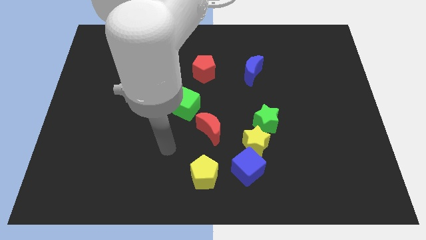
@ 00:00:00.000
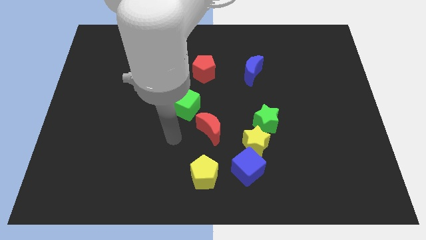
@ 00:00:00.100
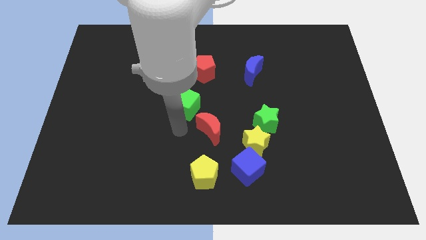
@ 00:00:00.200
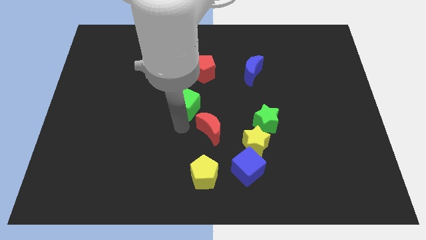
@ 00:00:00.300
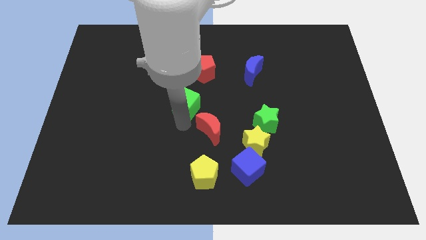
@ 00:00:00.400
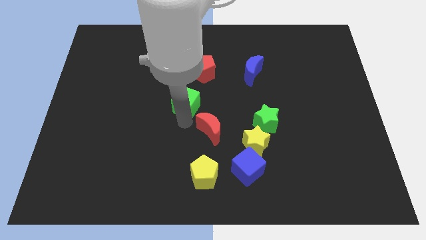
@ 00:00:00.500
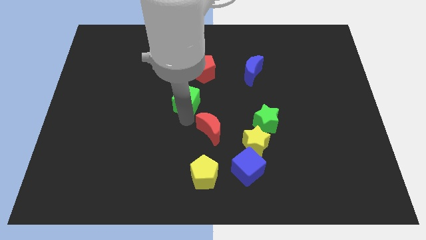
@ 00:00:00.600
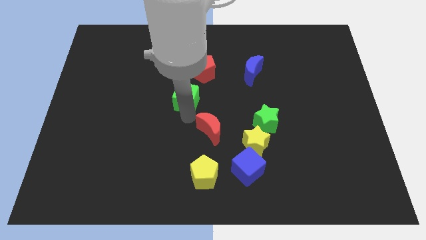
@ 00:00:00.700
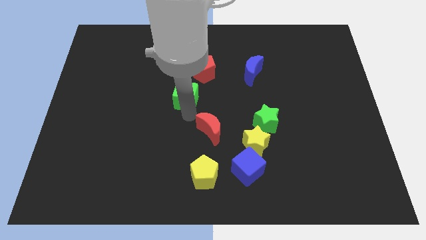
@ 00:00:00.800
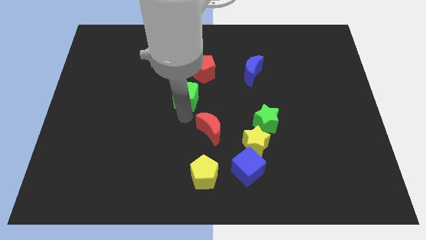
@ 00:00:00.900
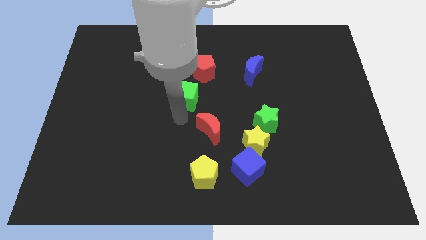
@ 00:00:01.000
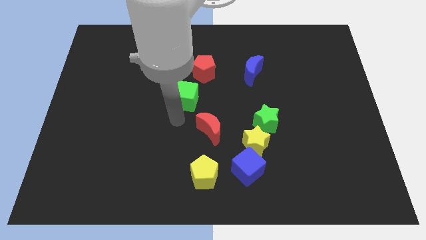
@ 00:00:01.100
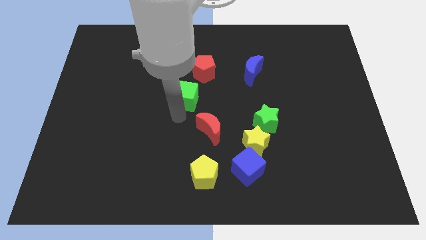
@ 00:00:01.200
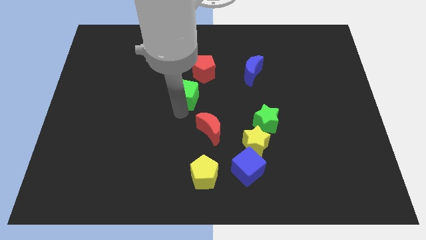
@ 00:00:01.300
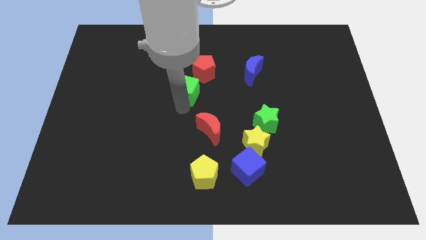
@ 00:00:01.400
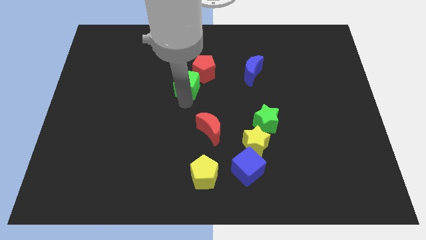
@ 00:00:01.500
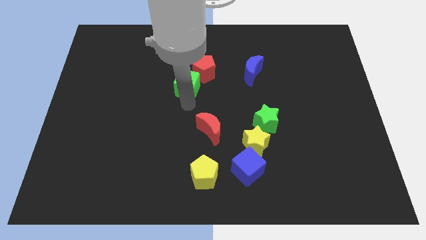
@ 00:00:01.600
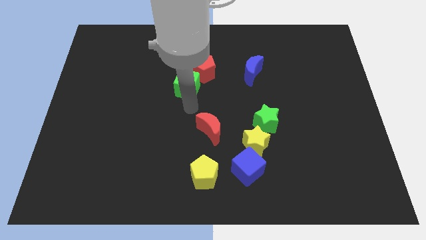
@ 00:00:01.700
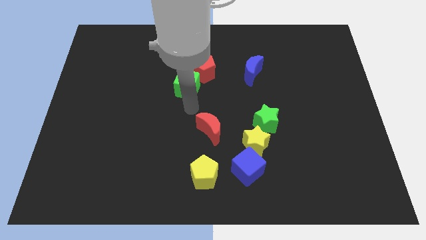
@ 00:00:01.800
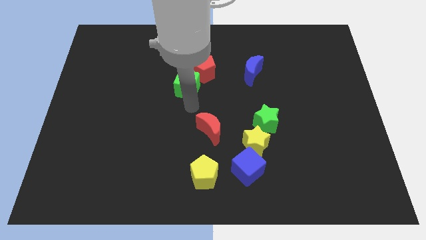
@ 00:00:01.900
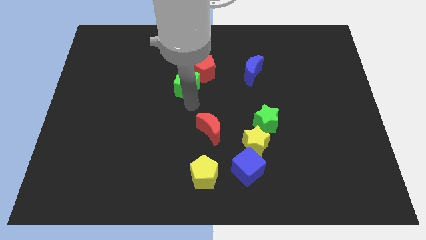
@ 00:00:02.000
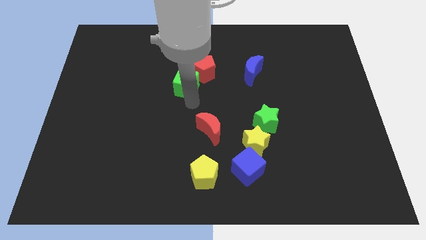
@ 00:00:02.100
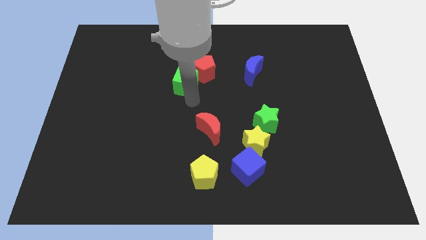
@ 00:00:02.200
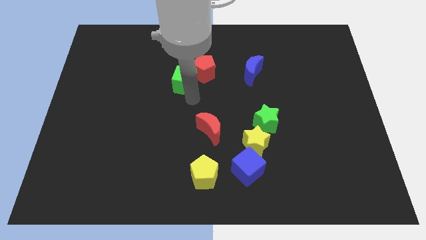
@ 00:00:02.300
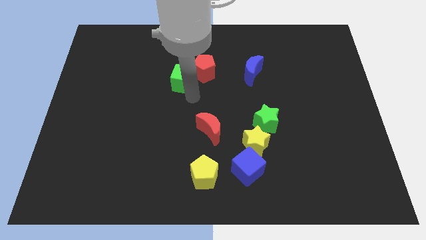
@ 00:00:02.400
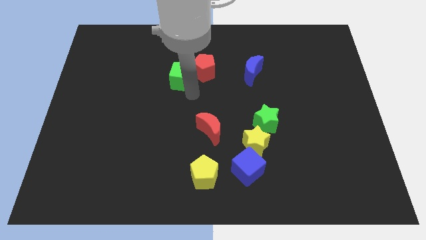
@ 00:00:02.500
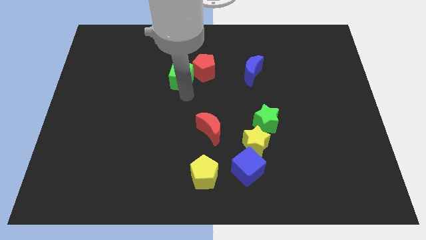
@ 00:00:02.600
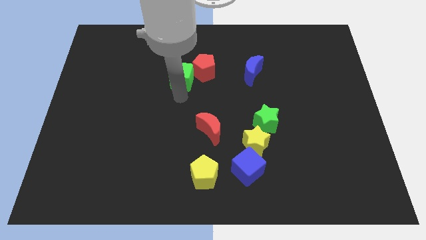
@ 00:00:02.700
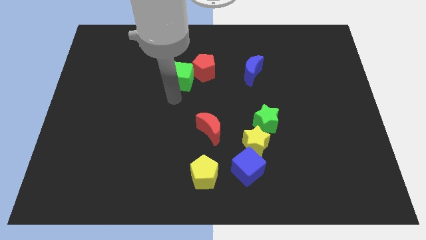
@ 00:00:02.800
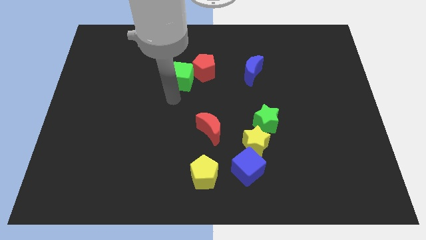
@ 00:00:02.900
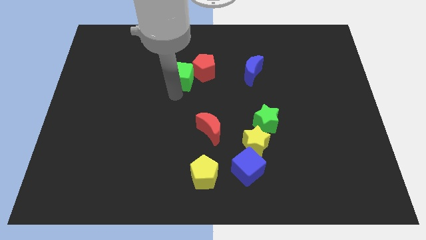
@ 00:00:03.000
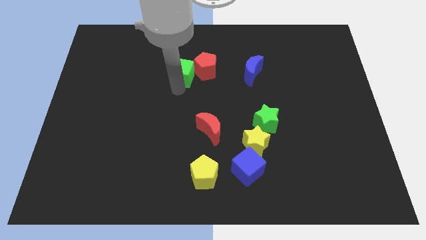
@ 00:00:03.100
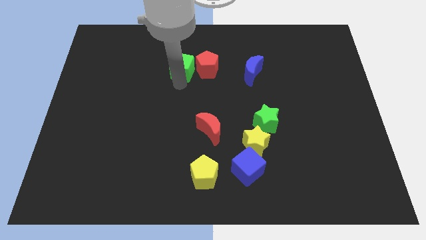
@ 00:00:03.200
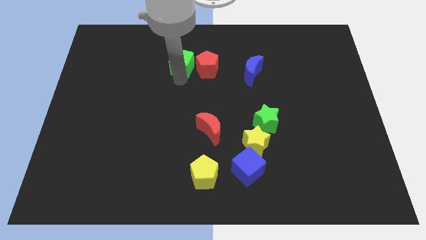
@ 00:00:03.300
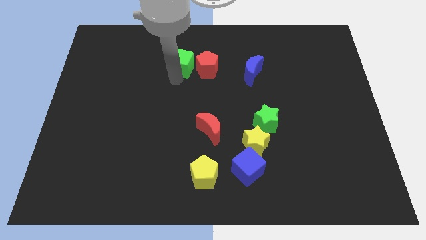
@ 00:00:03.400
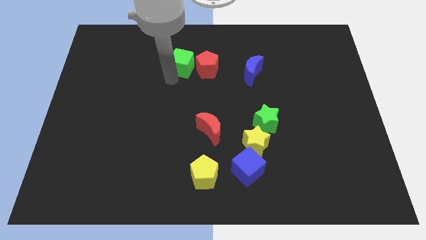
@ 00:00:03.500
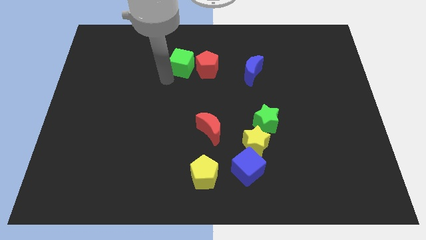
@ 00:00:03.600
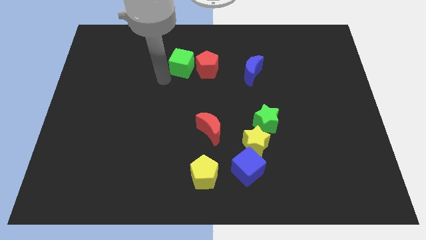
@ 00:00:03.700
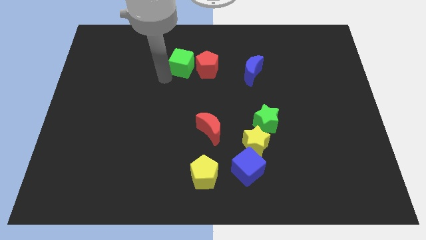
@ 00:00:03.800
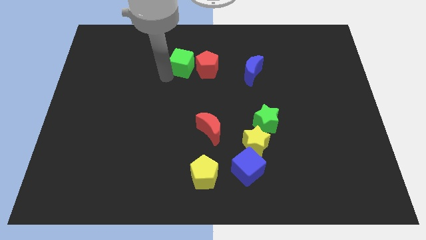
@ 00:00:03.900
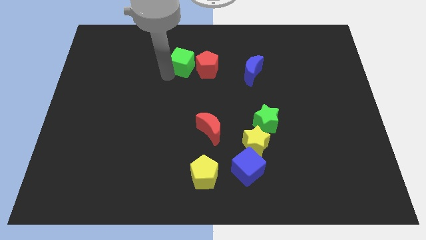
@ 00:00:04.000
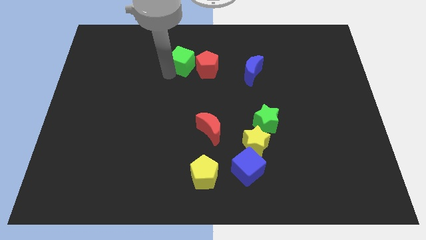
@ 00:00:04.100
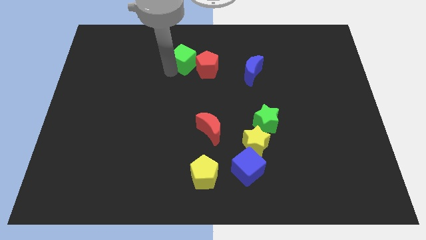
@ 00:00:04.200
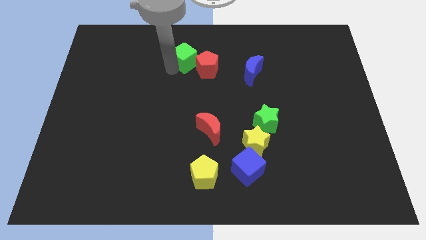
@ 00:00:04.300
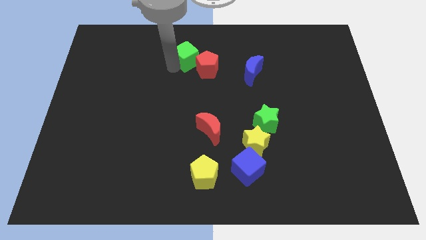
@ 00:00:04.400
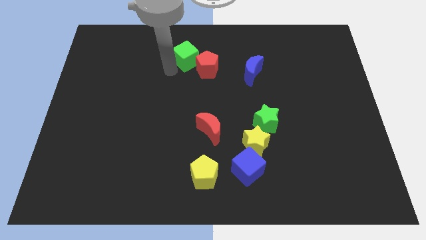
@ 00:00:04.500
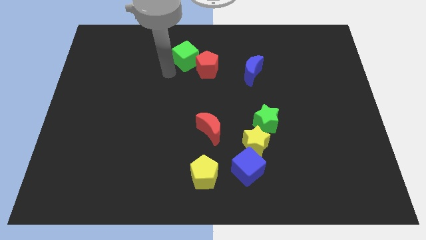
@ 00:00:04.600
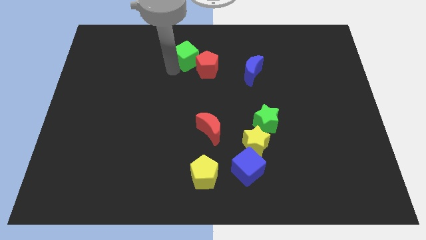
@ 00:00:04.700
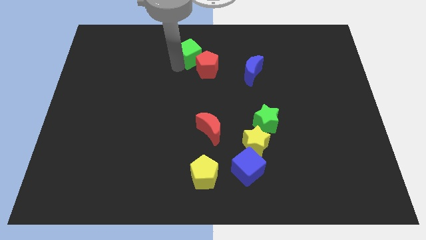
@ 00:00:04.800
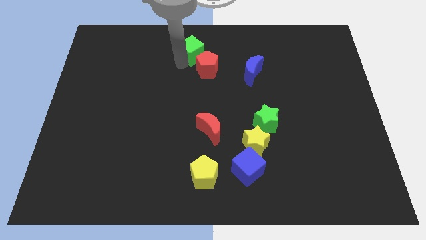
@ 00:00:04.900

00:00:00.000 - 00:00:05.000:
slide the green cube to the top
